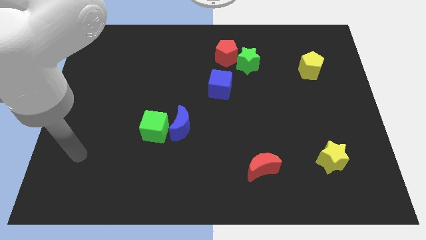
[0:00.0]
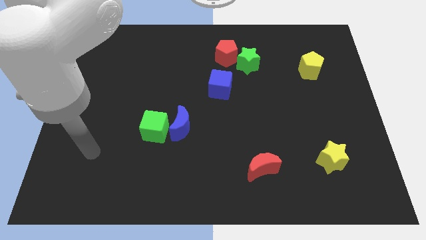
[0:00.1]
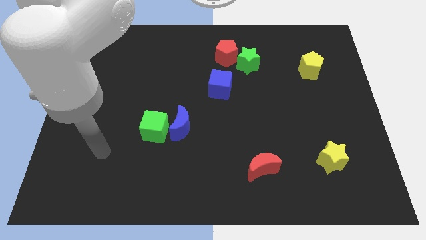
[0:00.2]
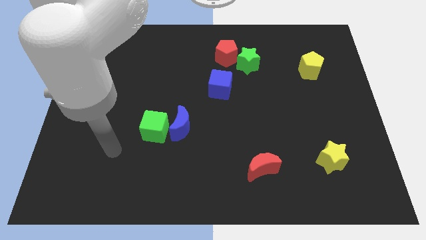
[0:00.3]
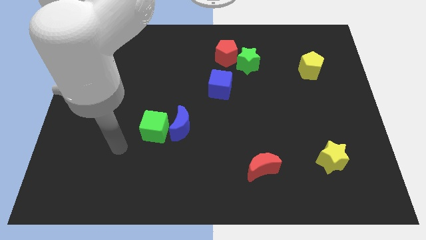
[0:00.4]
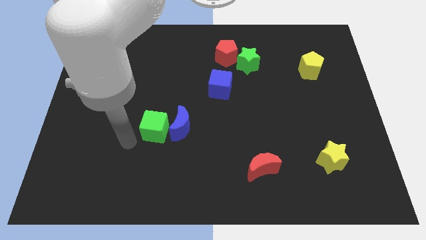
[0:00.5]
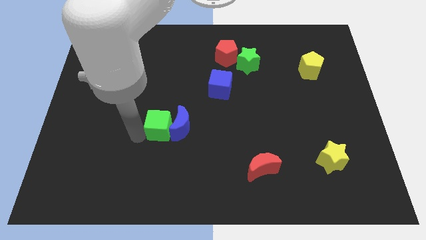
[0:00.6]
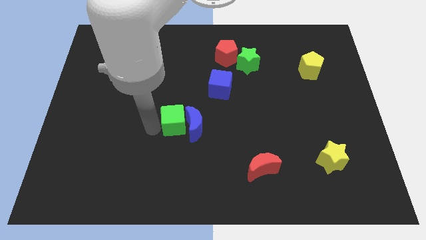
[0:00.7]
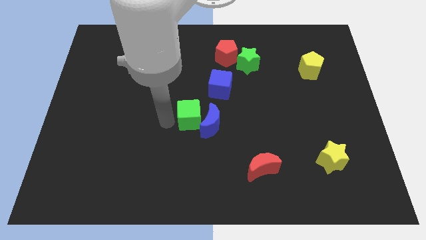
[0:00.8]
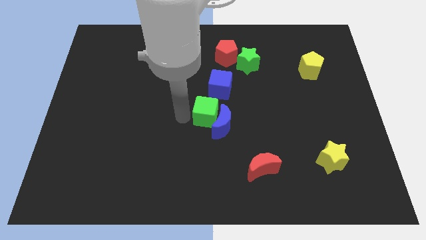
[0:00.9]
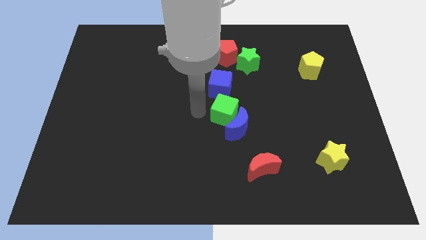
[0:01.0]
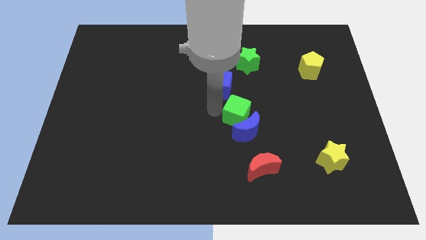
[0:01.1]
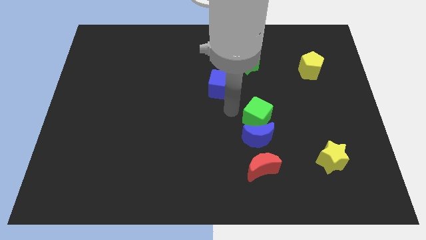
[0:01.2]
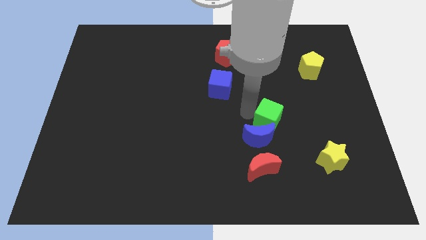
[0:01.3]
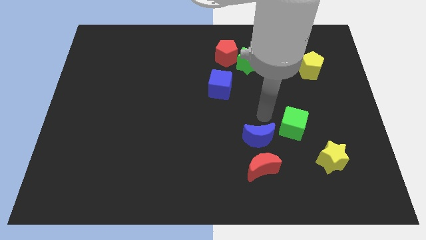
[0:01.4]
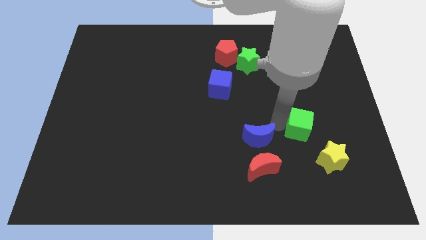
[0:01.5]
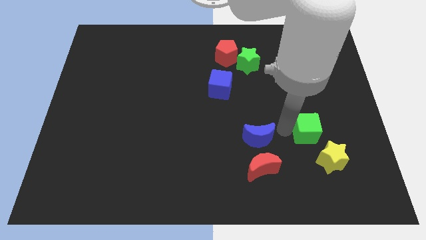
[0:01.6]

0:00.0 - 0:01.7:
pull the blue moon apart from the green cube

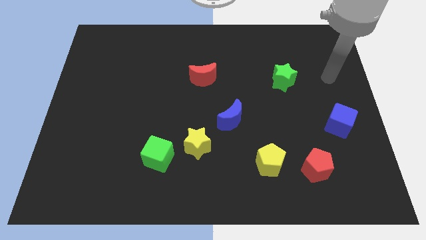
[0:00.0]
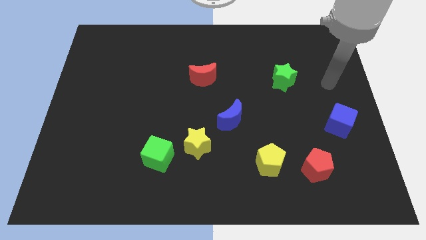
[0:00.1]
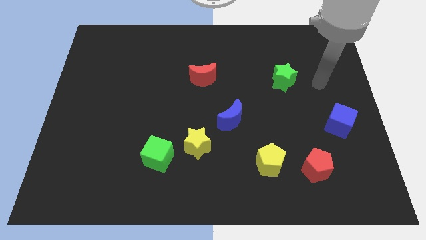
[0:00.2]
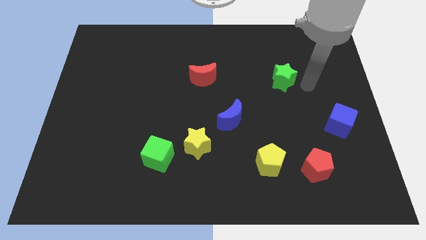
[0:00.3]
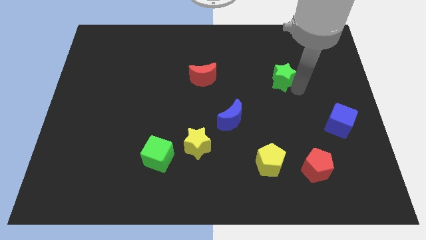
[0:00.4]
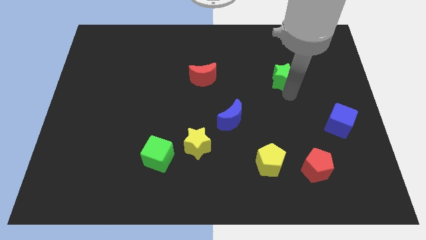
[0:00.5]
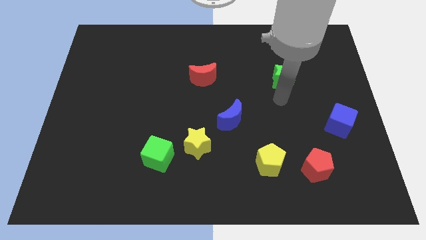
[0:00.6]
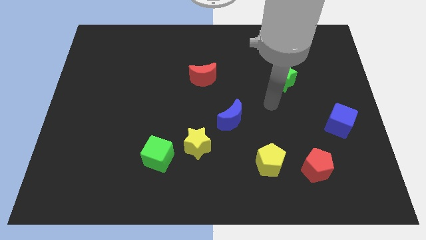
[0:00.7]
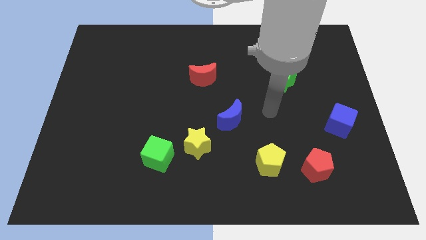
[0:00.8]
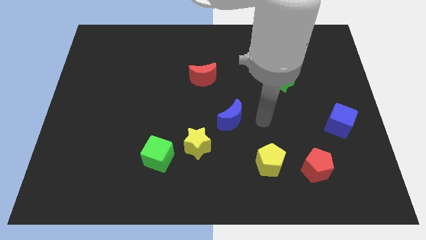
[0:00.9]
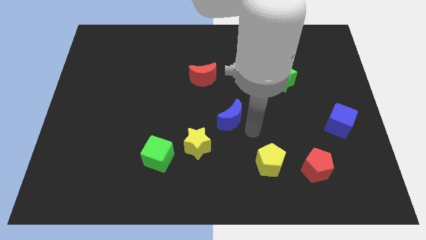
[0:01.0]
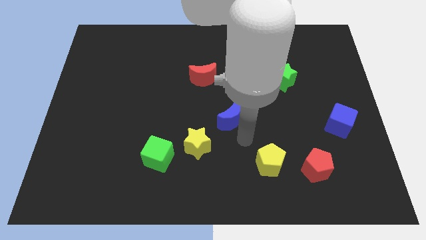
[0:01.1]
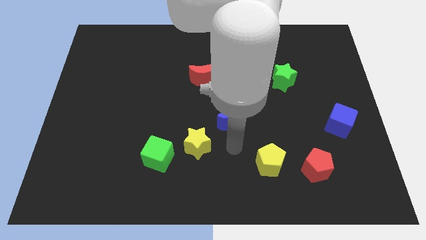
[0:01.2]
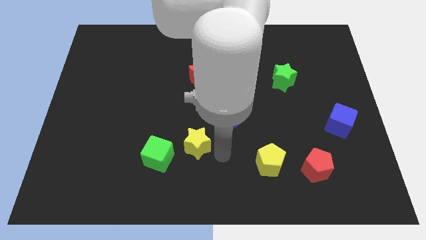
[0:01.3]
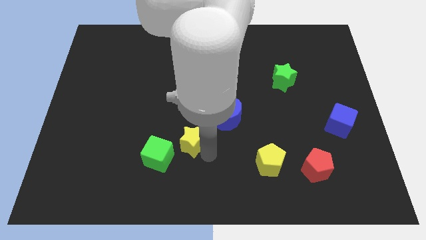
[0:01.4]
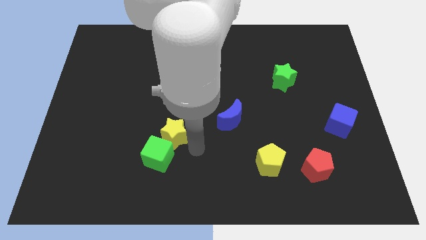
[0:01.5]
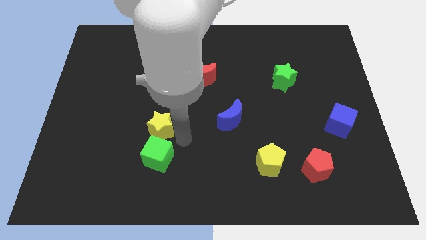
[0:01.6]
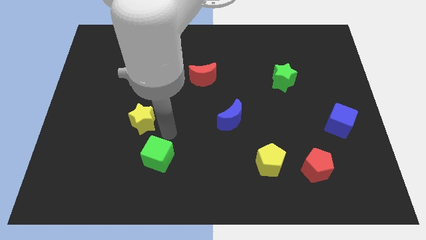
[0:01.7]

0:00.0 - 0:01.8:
move the green cube away from the yellow star

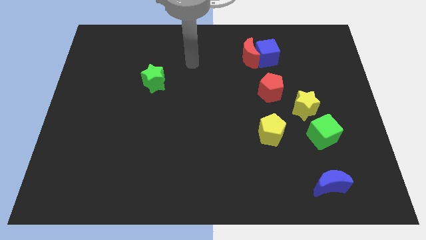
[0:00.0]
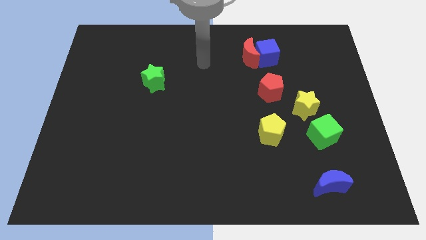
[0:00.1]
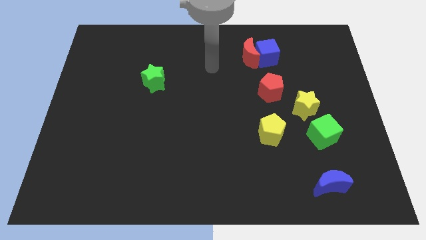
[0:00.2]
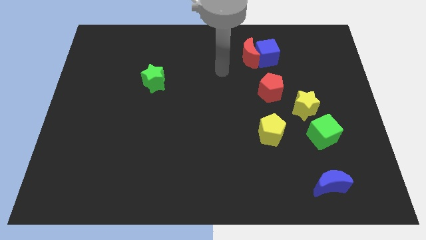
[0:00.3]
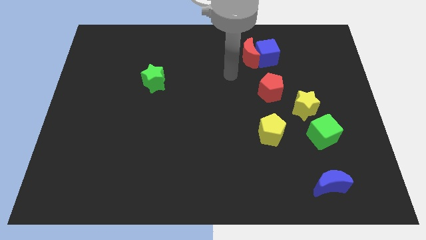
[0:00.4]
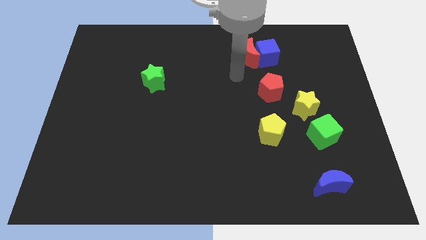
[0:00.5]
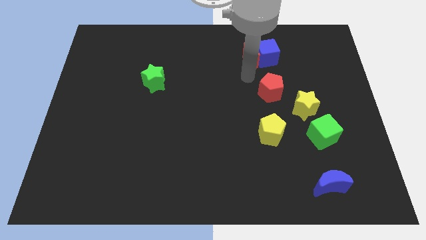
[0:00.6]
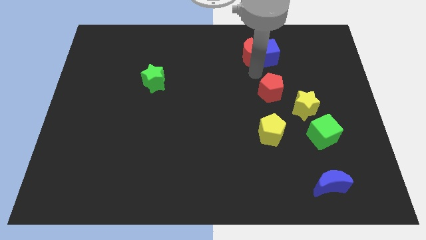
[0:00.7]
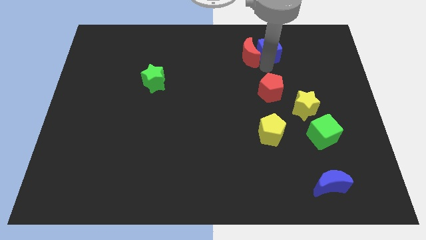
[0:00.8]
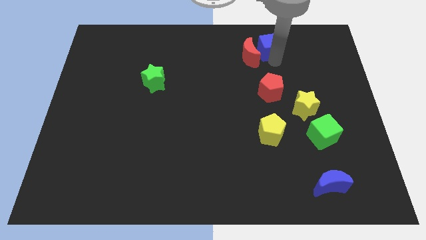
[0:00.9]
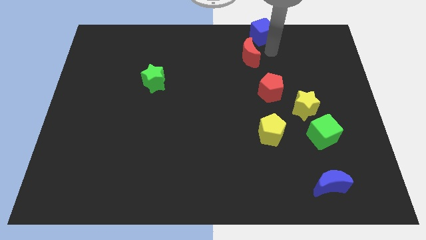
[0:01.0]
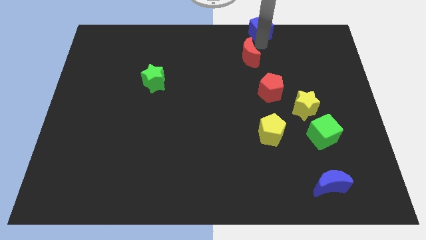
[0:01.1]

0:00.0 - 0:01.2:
move the red moon away from the blue cube

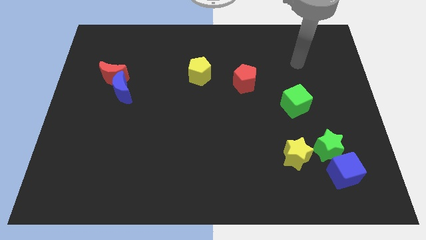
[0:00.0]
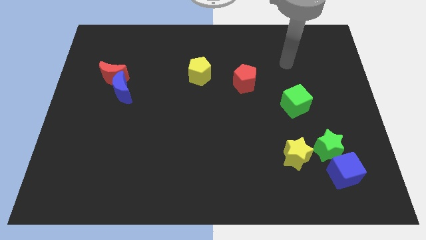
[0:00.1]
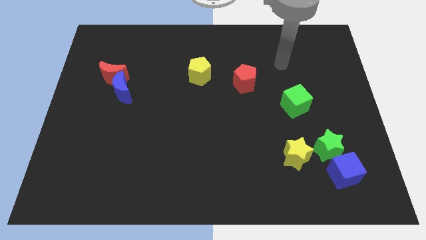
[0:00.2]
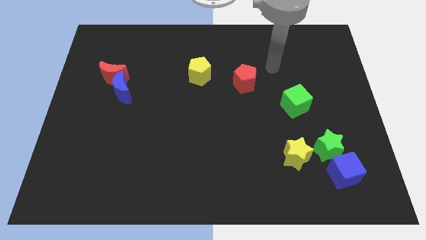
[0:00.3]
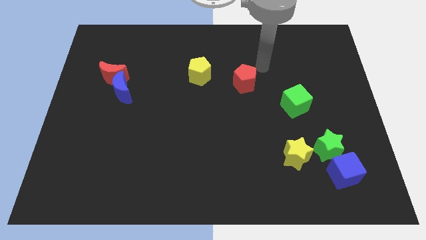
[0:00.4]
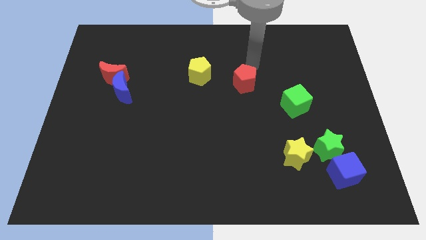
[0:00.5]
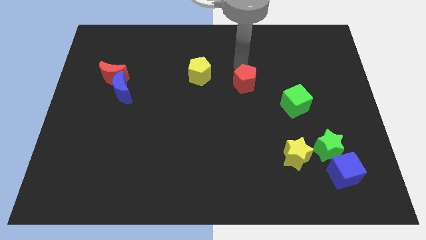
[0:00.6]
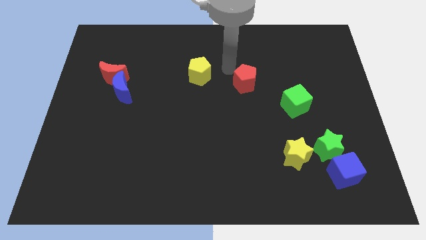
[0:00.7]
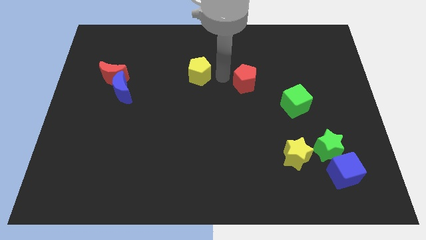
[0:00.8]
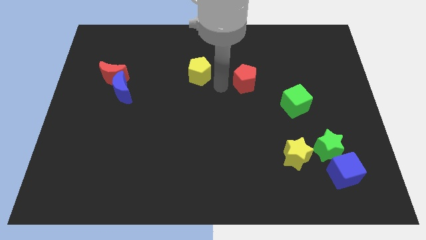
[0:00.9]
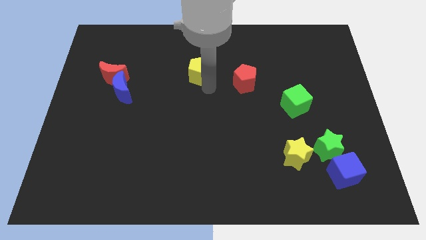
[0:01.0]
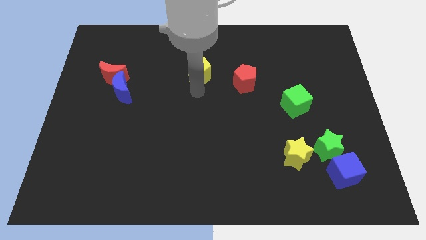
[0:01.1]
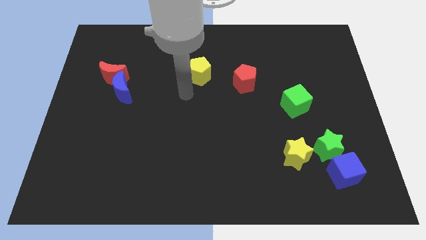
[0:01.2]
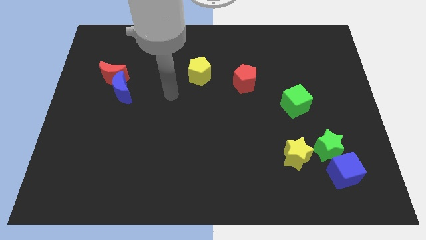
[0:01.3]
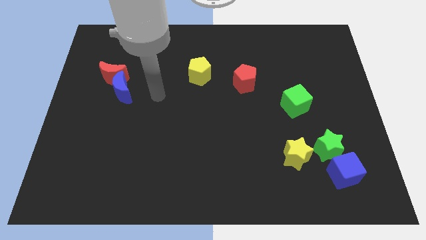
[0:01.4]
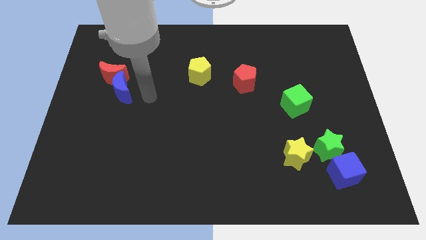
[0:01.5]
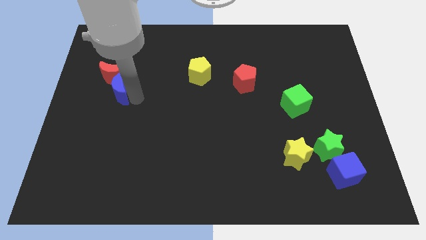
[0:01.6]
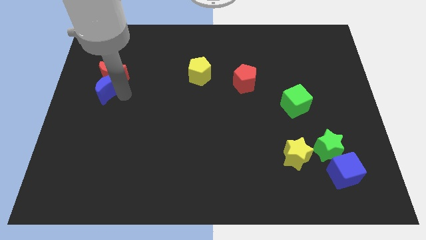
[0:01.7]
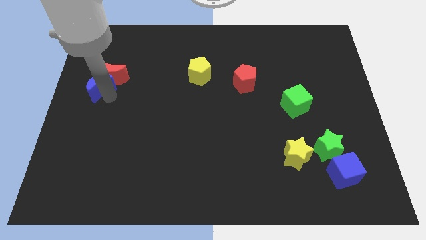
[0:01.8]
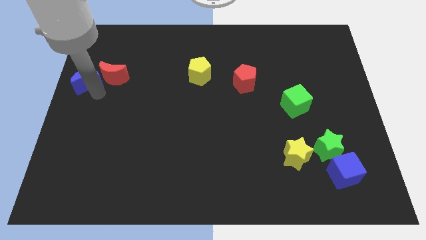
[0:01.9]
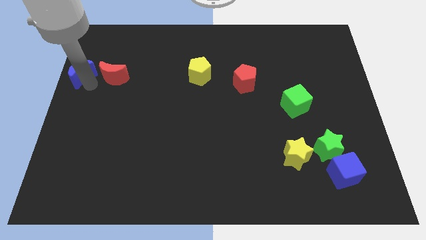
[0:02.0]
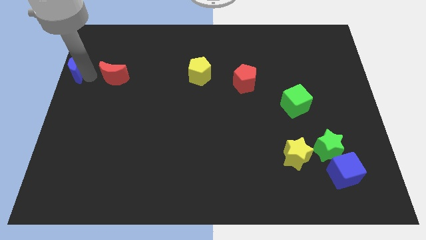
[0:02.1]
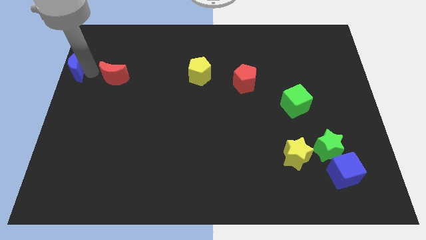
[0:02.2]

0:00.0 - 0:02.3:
move the red moon away from the blue moon

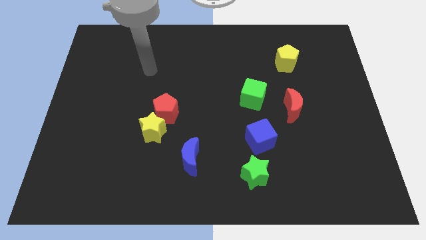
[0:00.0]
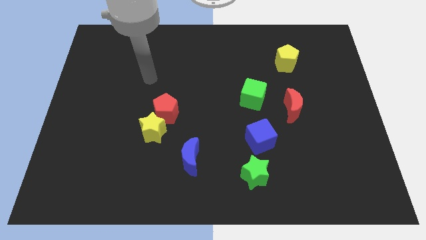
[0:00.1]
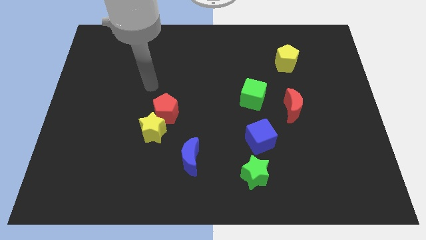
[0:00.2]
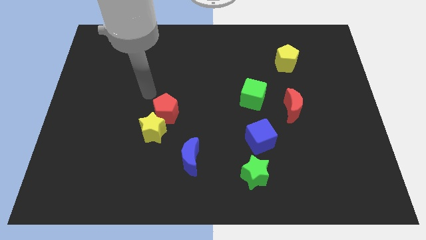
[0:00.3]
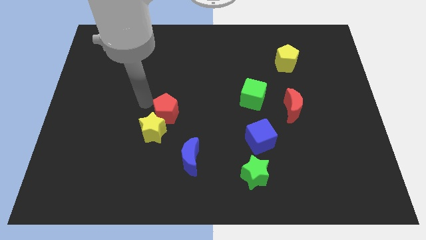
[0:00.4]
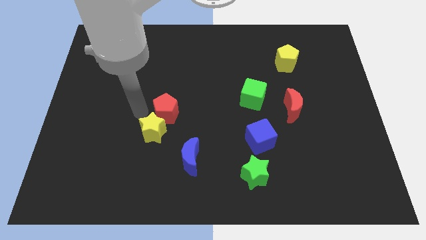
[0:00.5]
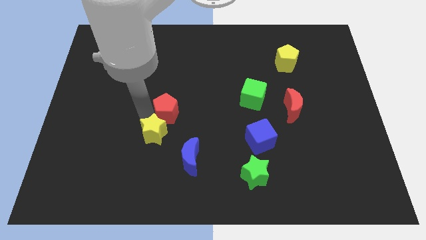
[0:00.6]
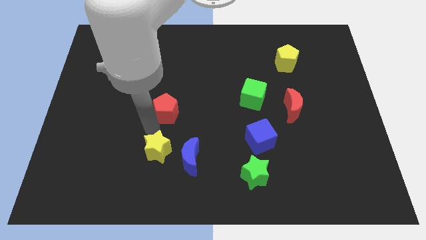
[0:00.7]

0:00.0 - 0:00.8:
pull the red pentagon apart from the yellow star

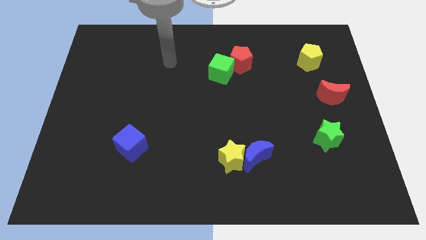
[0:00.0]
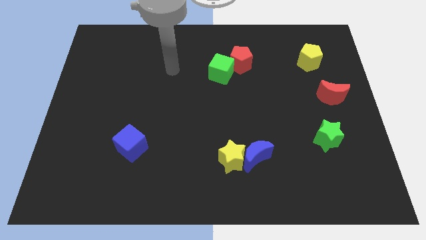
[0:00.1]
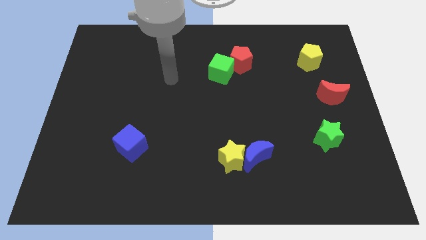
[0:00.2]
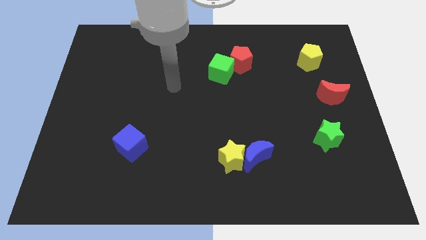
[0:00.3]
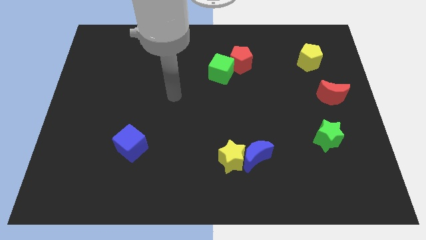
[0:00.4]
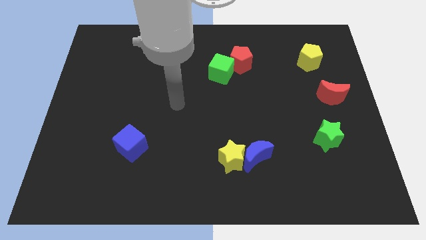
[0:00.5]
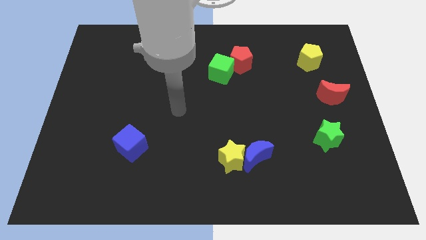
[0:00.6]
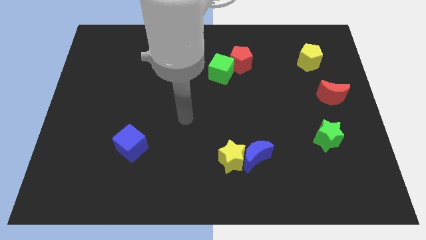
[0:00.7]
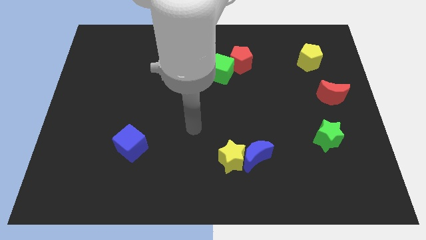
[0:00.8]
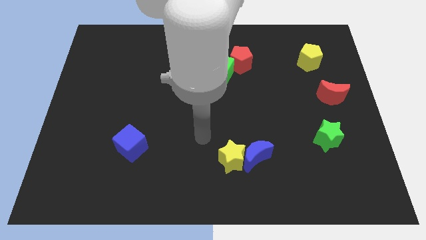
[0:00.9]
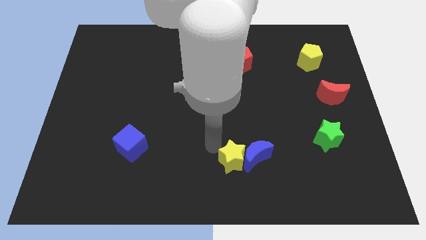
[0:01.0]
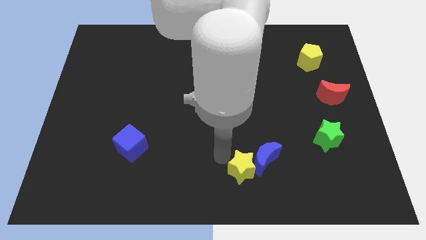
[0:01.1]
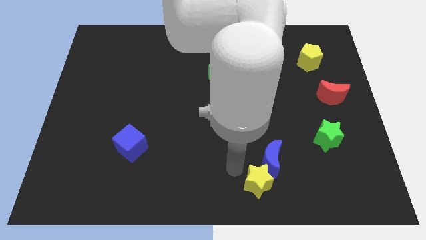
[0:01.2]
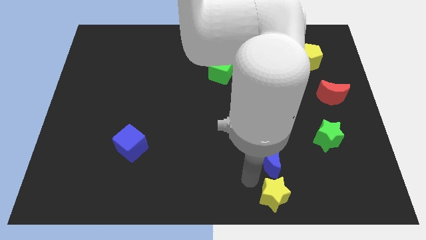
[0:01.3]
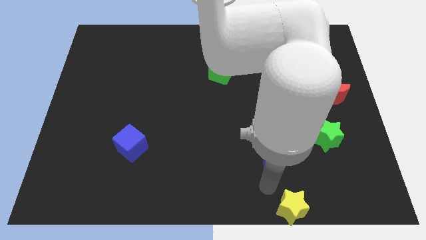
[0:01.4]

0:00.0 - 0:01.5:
pull the blue moon apart from the yellow star
